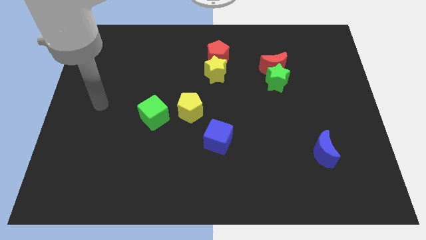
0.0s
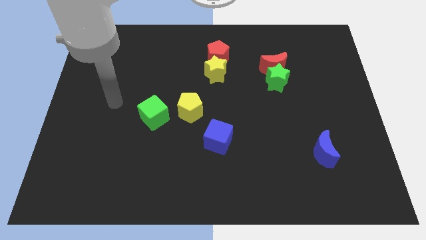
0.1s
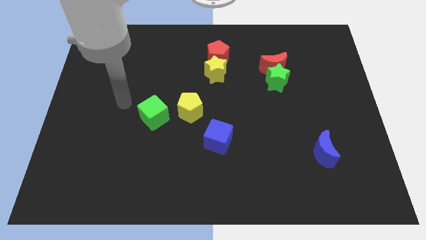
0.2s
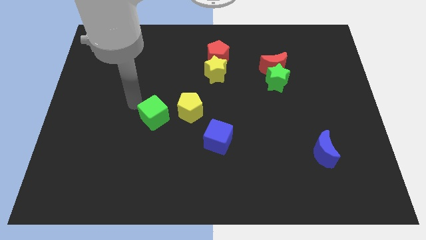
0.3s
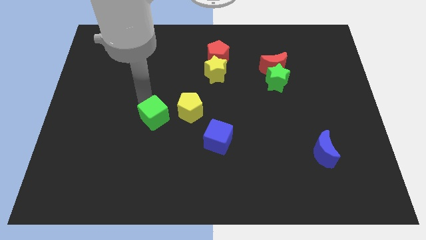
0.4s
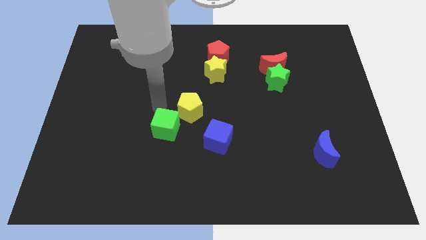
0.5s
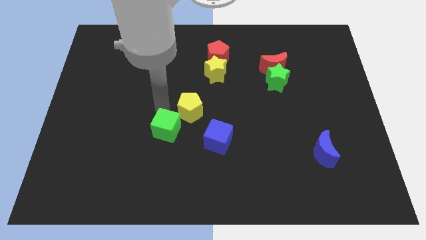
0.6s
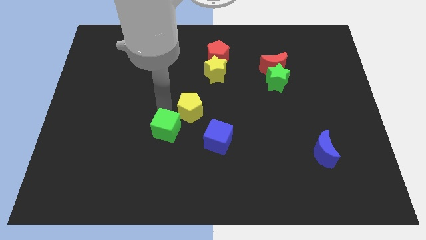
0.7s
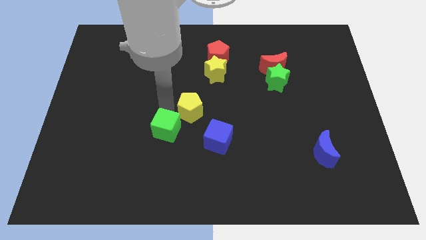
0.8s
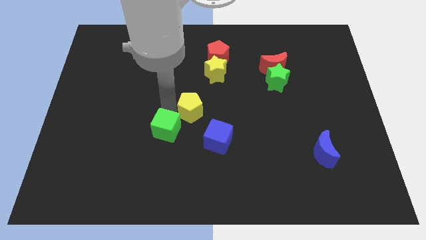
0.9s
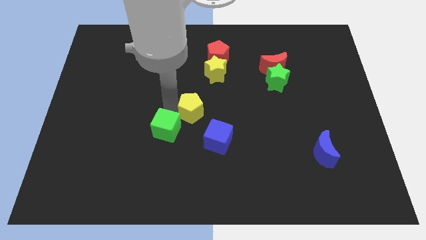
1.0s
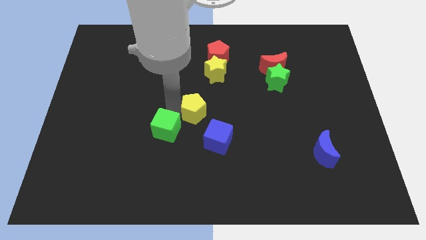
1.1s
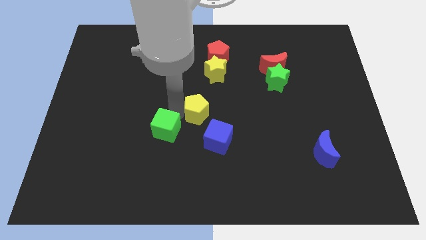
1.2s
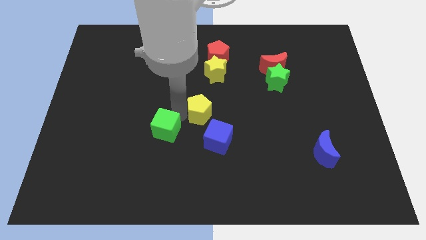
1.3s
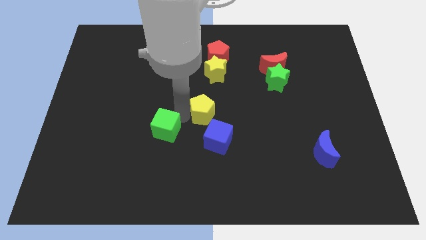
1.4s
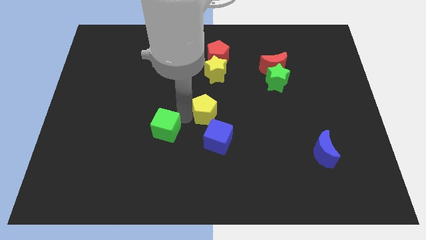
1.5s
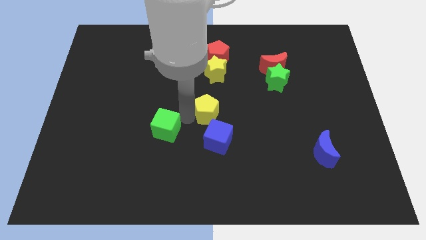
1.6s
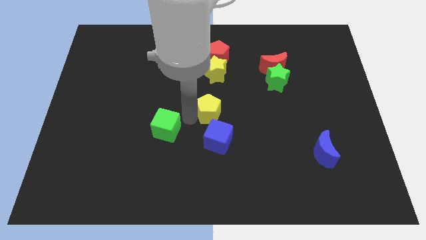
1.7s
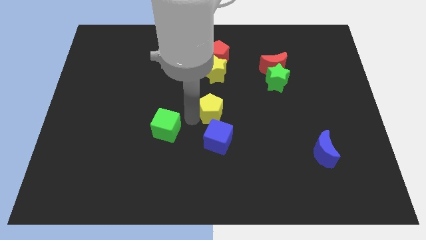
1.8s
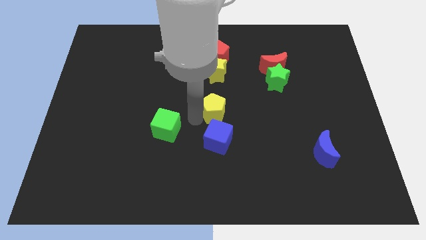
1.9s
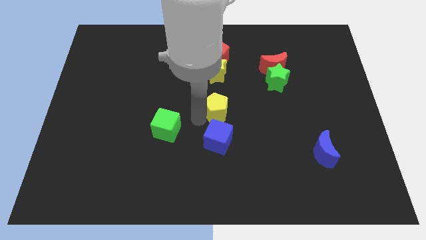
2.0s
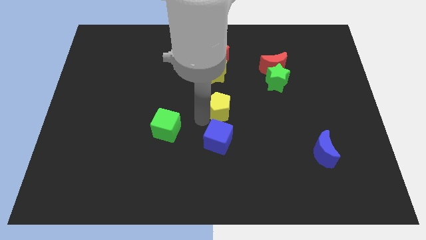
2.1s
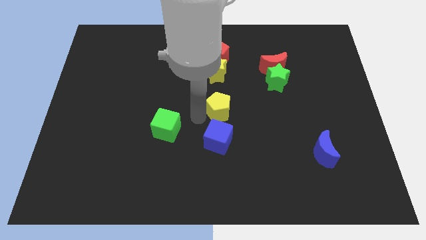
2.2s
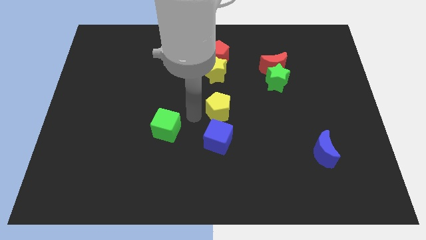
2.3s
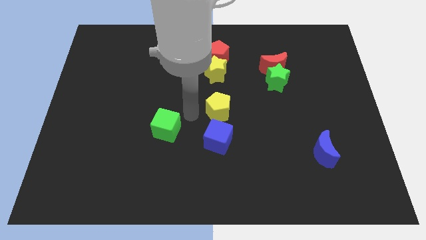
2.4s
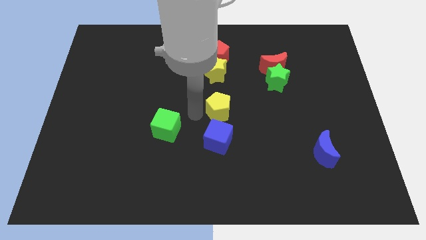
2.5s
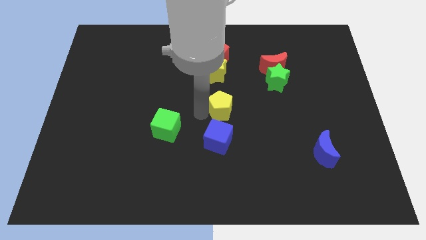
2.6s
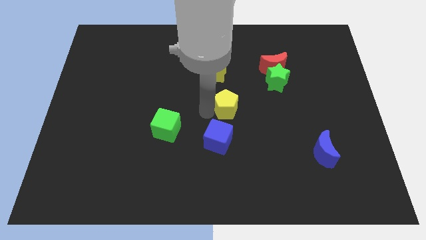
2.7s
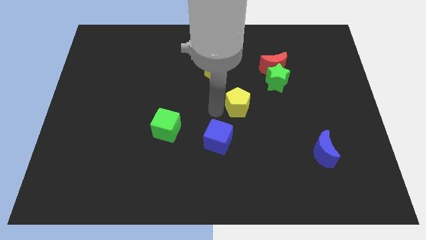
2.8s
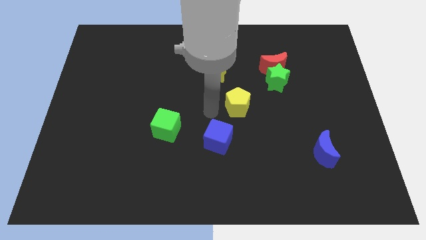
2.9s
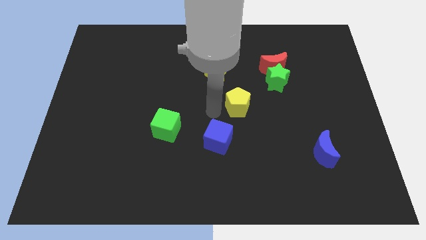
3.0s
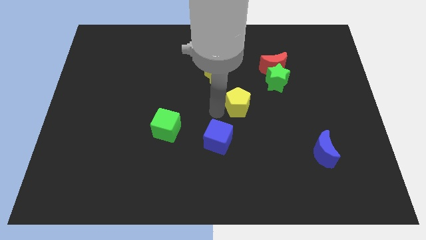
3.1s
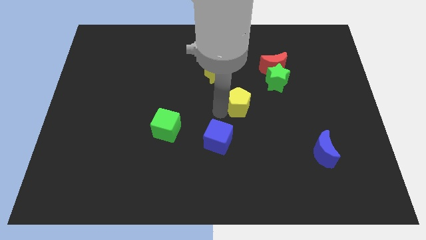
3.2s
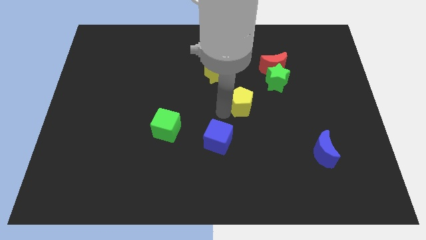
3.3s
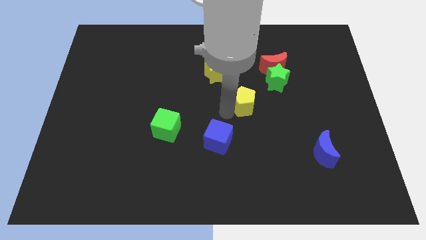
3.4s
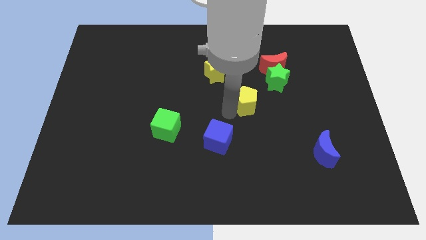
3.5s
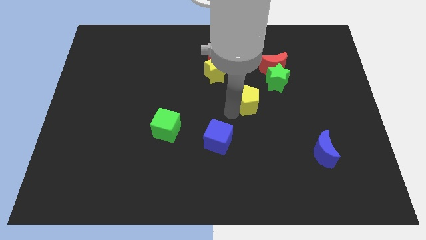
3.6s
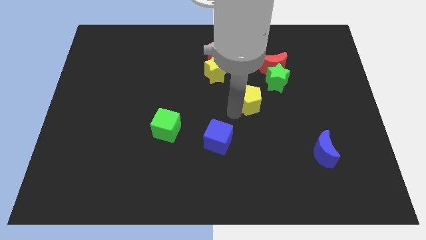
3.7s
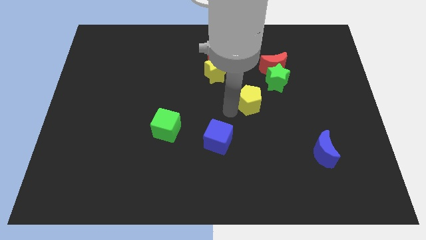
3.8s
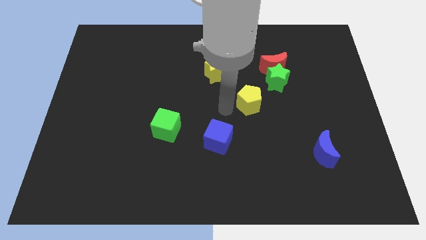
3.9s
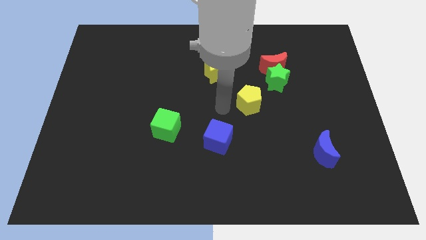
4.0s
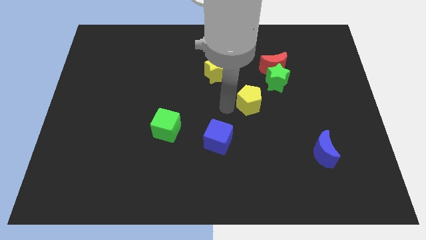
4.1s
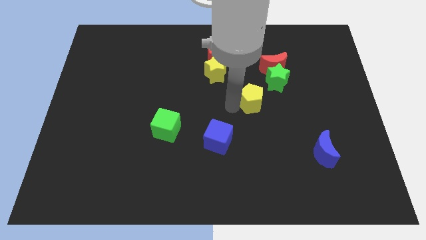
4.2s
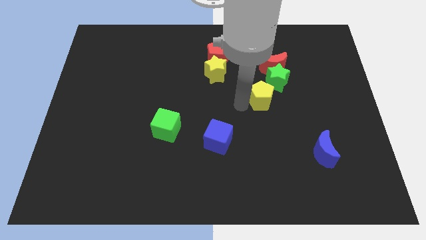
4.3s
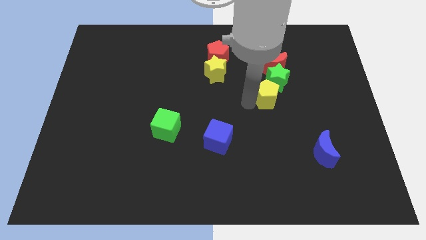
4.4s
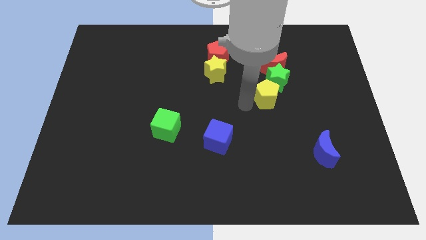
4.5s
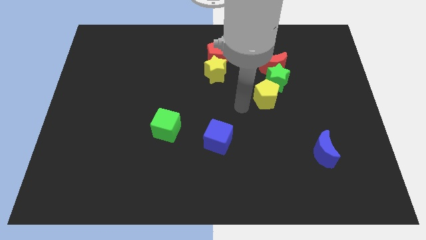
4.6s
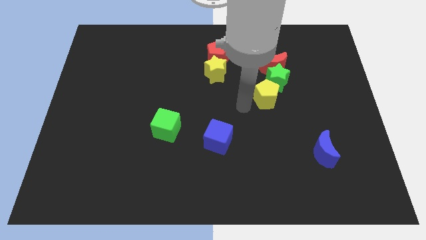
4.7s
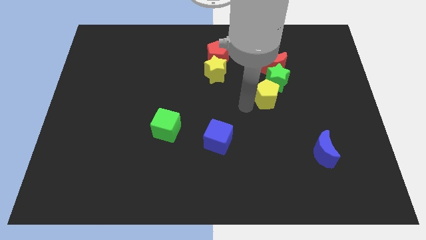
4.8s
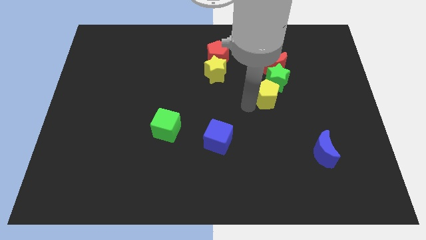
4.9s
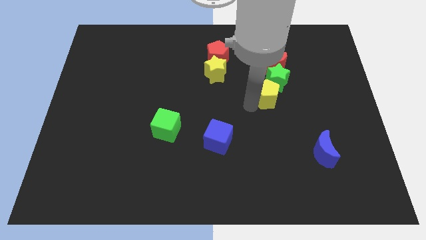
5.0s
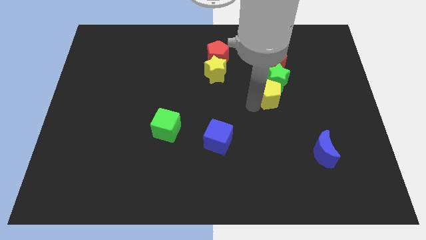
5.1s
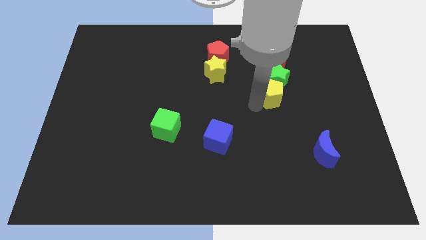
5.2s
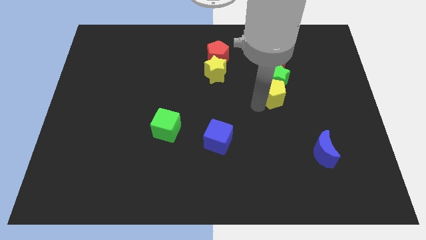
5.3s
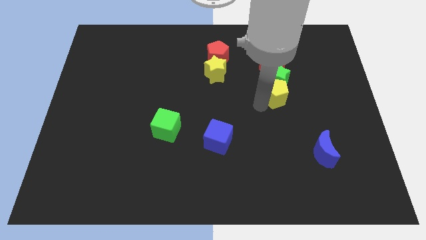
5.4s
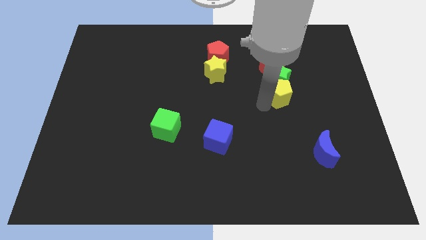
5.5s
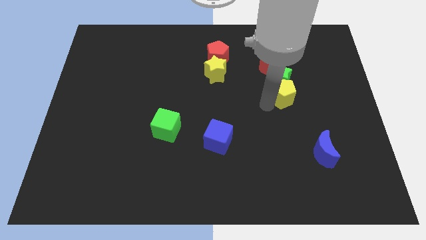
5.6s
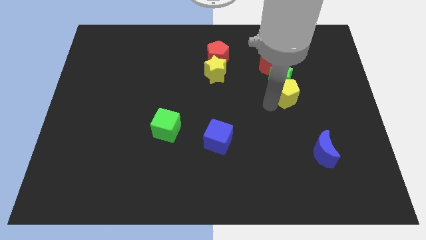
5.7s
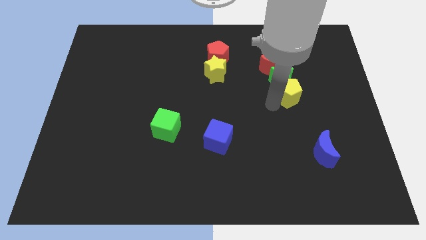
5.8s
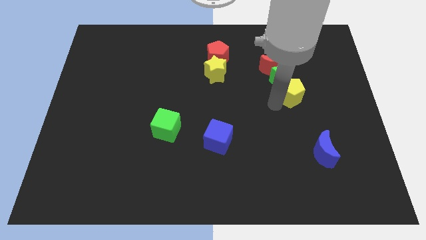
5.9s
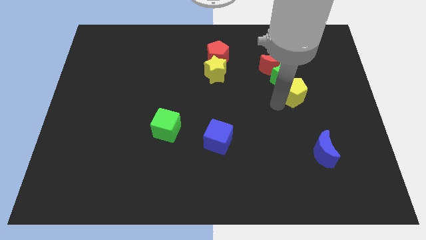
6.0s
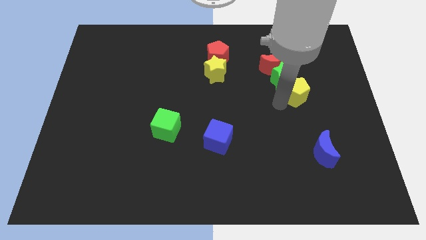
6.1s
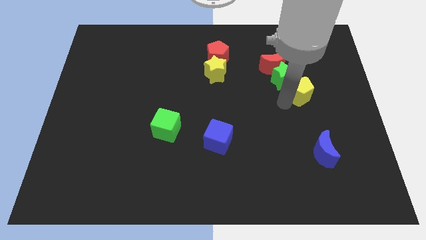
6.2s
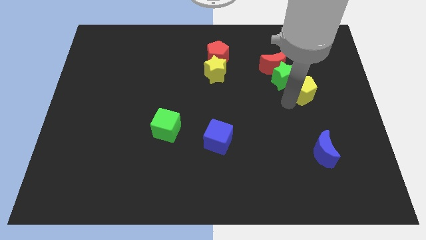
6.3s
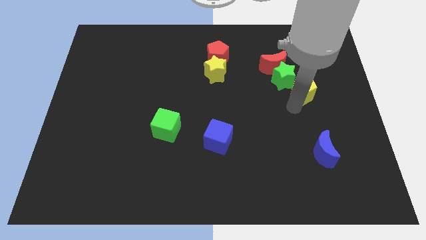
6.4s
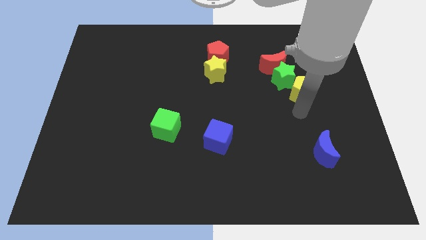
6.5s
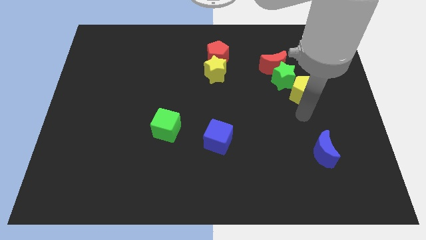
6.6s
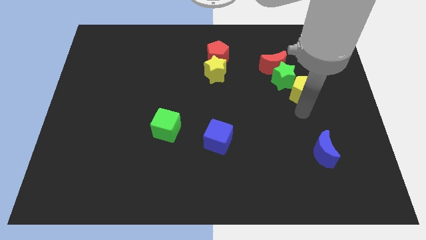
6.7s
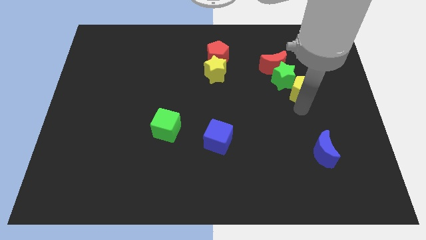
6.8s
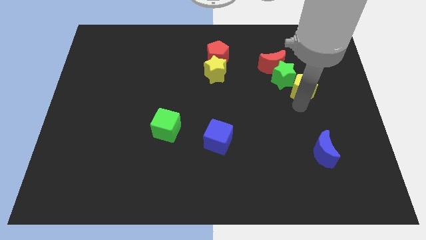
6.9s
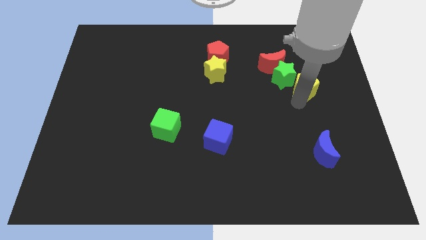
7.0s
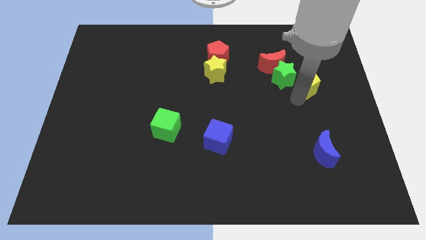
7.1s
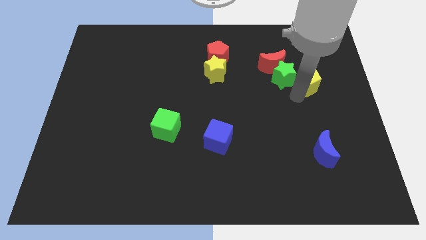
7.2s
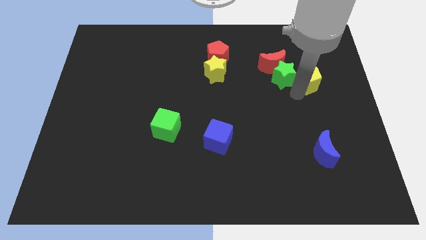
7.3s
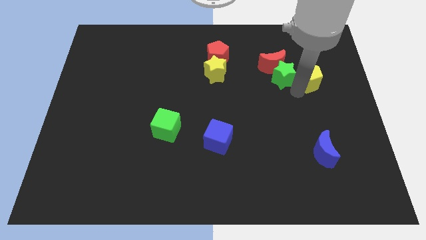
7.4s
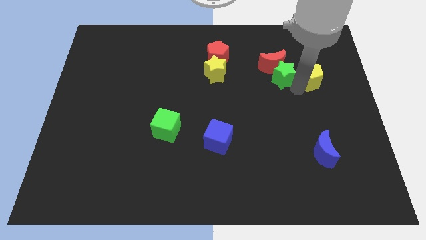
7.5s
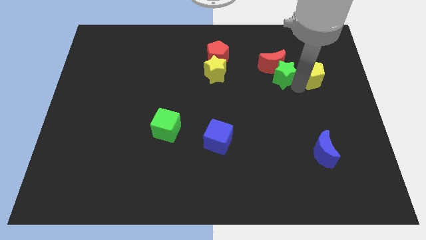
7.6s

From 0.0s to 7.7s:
move the yellow pentagon to the top right side of the green star
